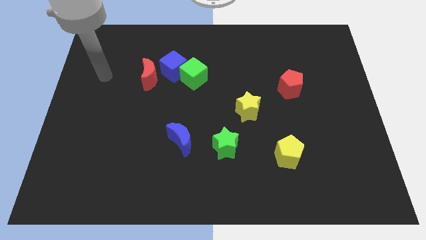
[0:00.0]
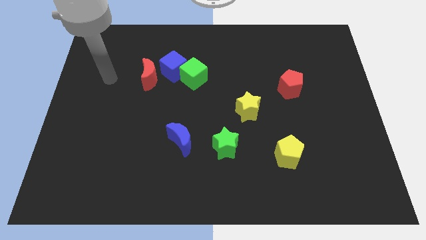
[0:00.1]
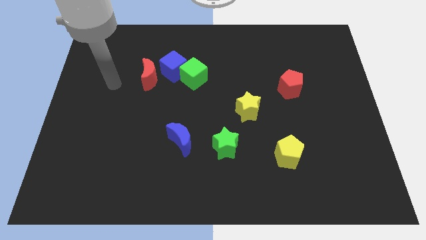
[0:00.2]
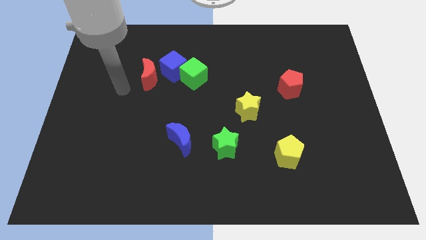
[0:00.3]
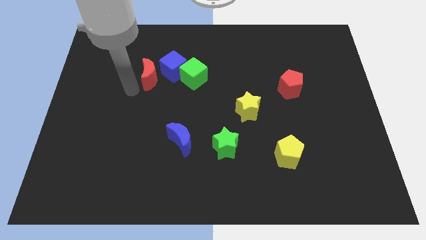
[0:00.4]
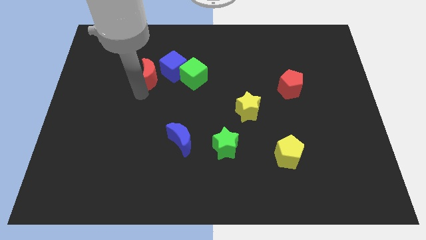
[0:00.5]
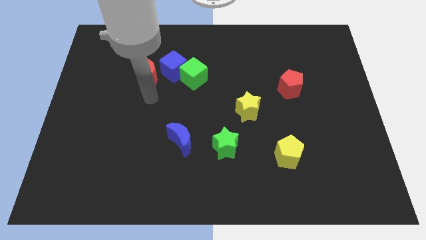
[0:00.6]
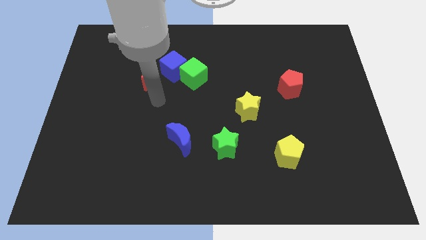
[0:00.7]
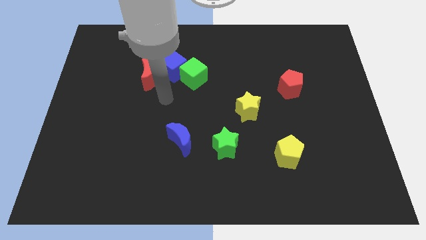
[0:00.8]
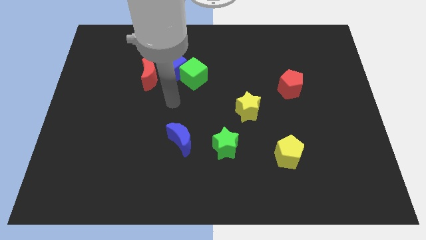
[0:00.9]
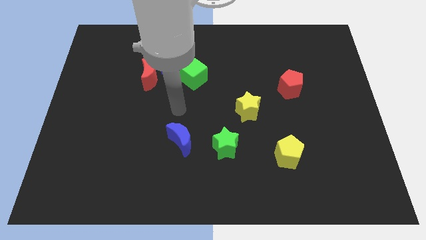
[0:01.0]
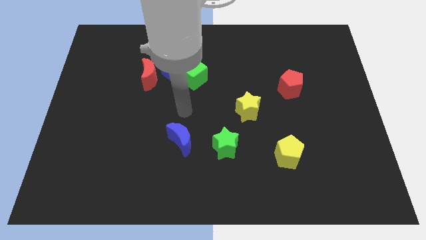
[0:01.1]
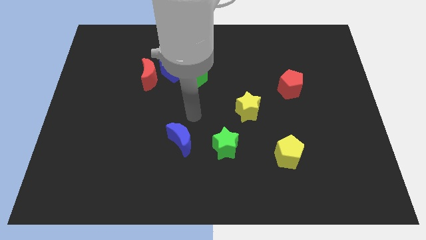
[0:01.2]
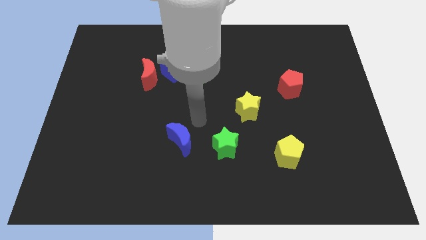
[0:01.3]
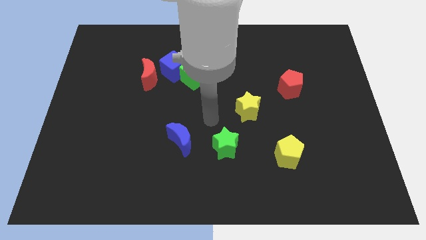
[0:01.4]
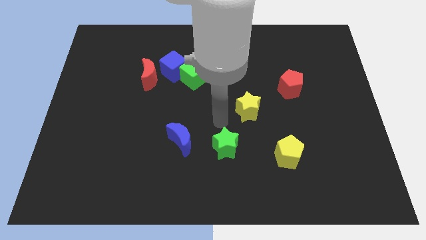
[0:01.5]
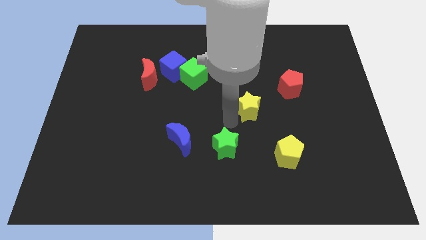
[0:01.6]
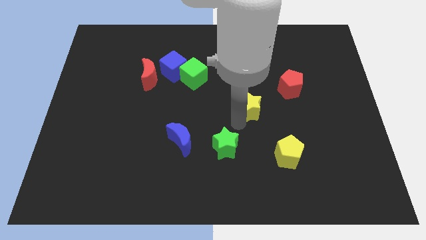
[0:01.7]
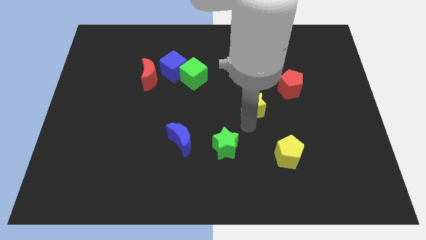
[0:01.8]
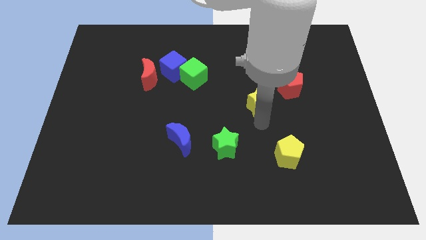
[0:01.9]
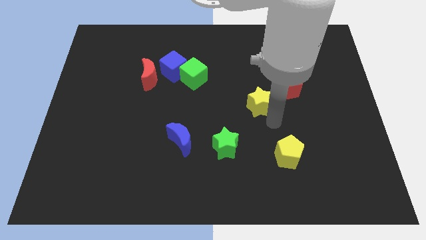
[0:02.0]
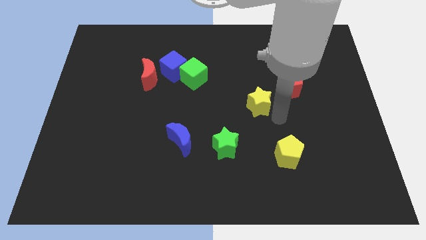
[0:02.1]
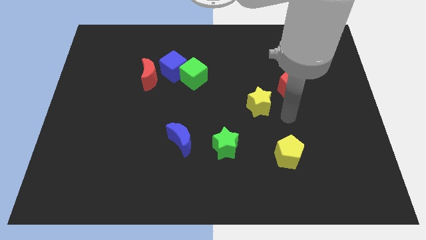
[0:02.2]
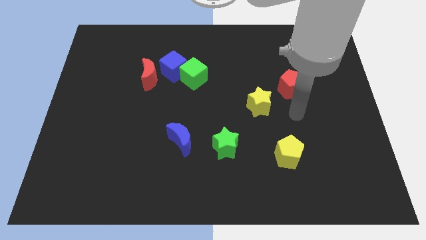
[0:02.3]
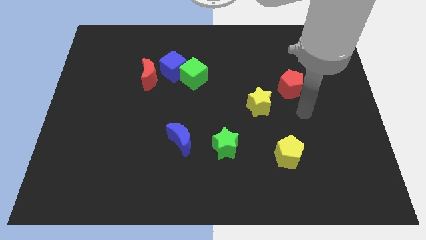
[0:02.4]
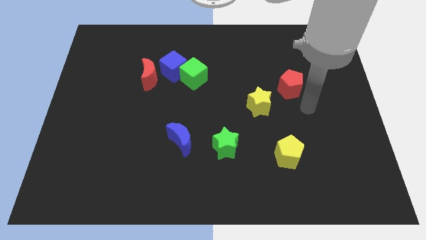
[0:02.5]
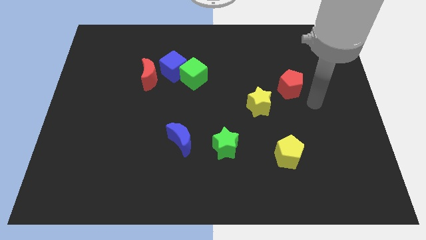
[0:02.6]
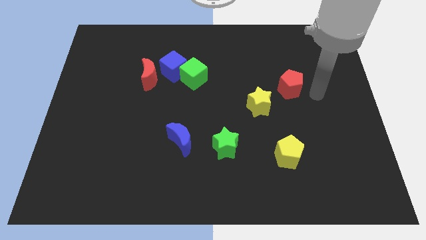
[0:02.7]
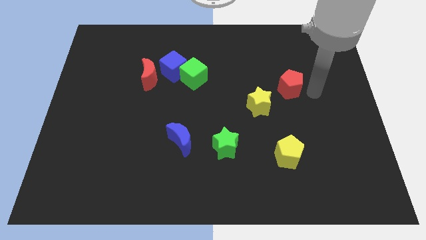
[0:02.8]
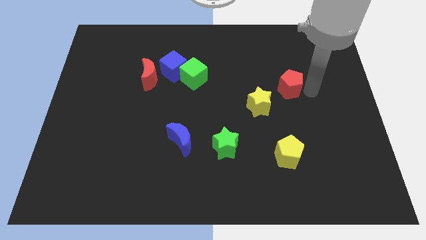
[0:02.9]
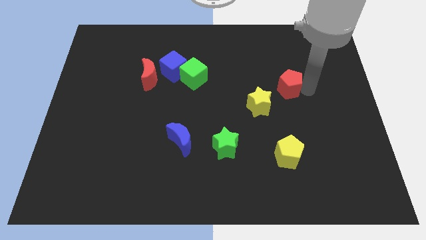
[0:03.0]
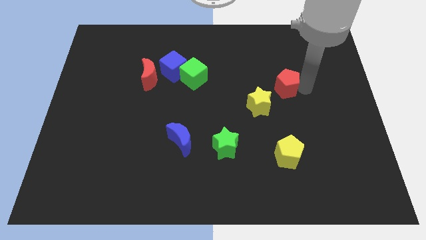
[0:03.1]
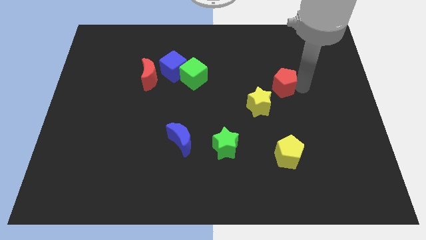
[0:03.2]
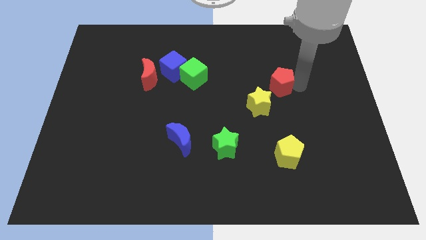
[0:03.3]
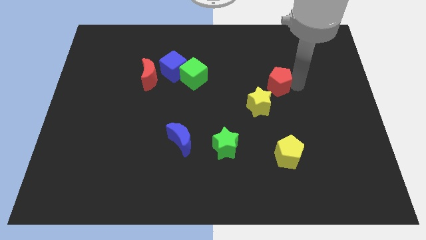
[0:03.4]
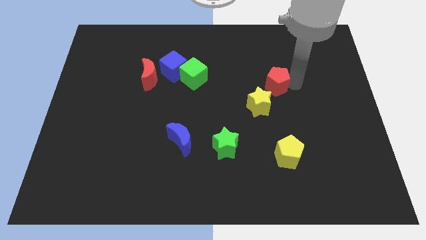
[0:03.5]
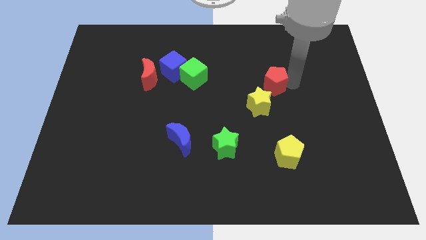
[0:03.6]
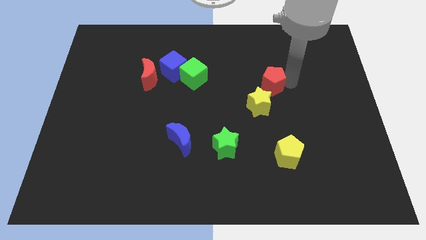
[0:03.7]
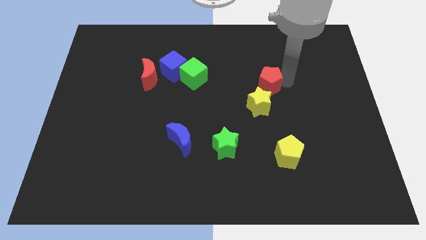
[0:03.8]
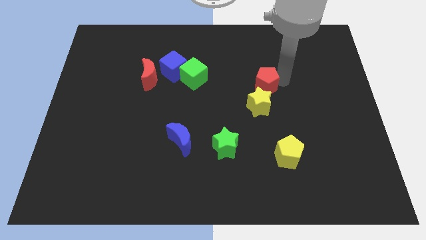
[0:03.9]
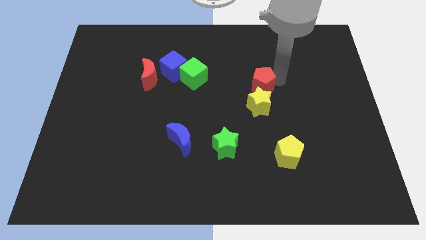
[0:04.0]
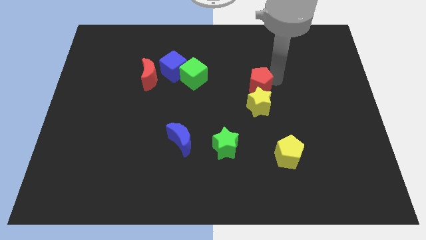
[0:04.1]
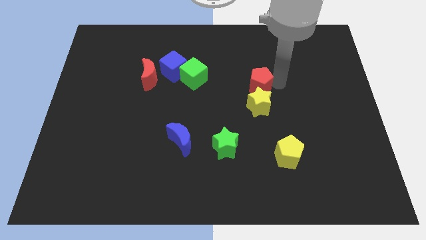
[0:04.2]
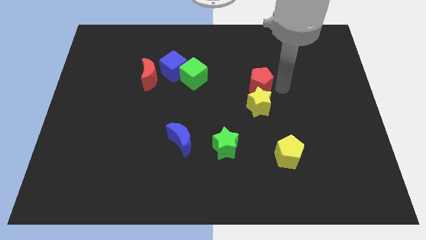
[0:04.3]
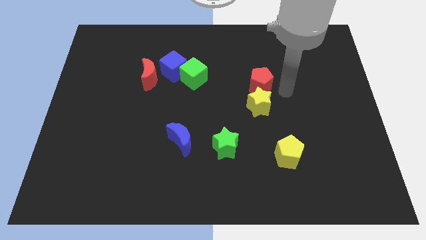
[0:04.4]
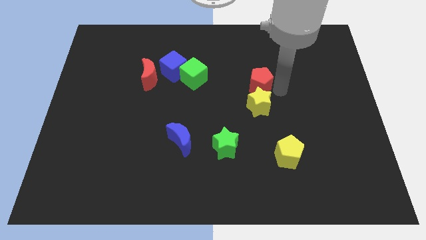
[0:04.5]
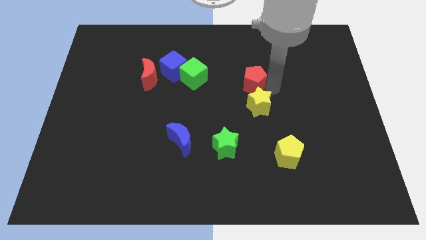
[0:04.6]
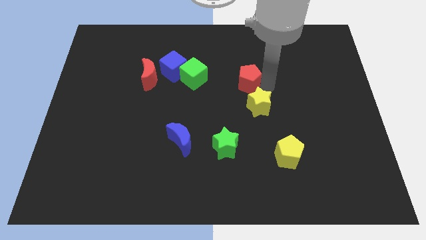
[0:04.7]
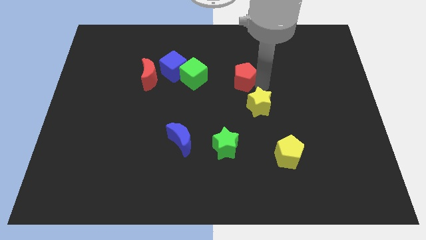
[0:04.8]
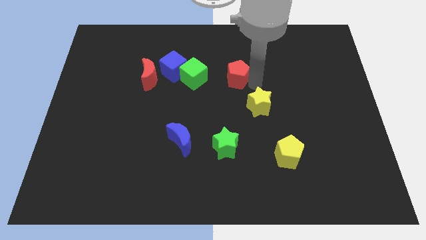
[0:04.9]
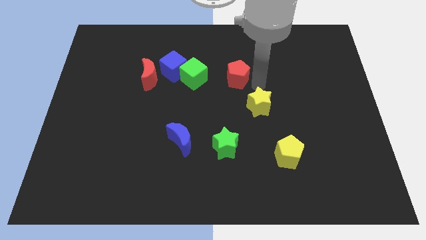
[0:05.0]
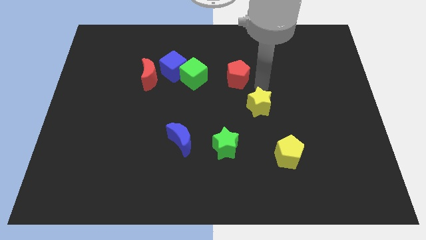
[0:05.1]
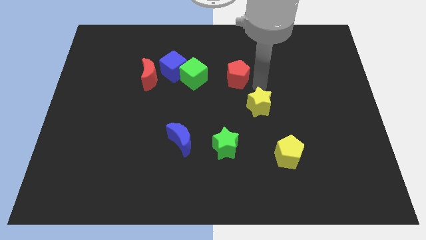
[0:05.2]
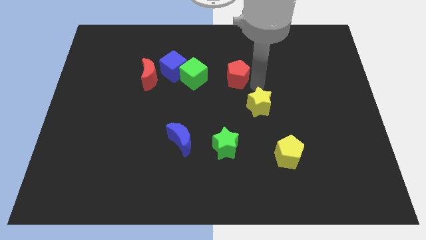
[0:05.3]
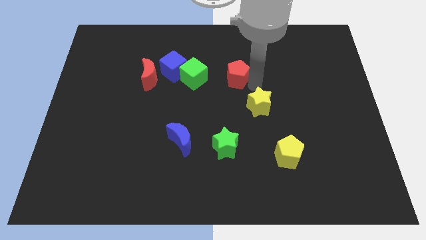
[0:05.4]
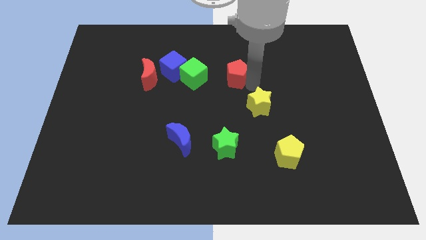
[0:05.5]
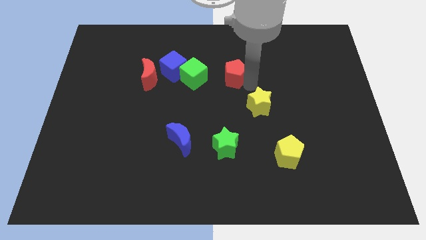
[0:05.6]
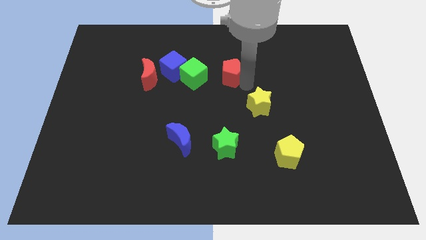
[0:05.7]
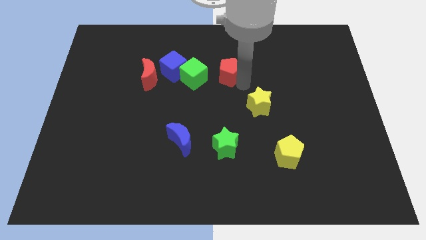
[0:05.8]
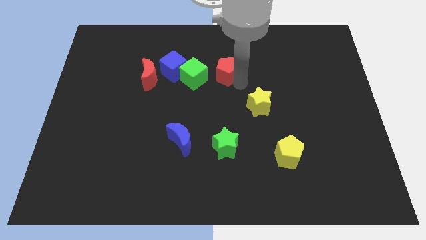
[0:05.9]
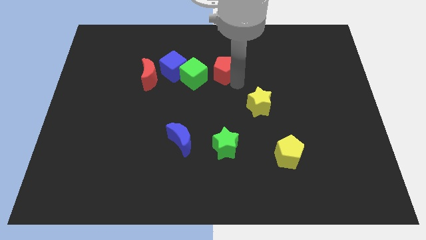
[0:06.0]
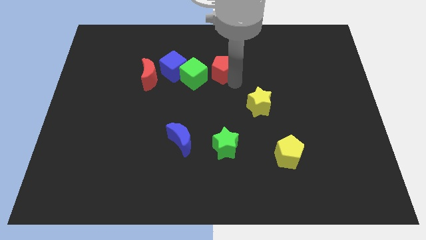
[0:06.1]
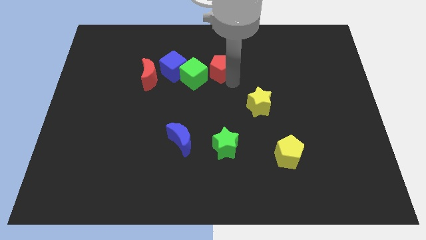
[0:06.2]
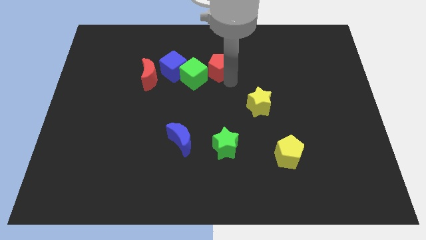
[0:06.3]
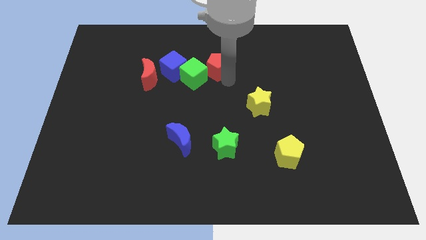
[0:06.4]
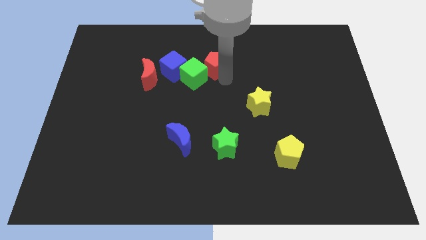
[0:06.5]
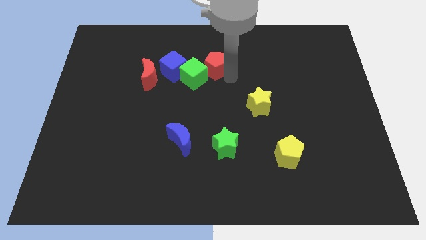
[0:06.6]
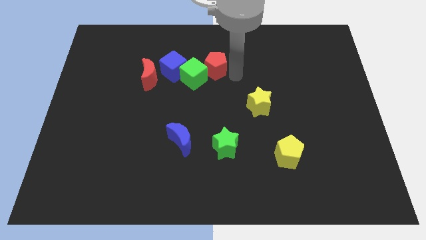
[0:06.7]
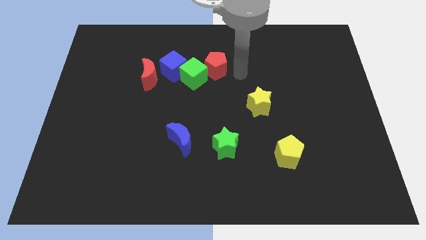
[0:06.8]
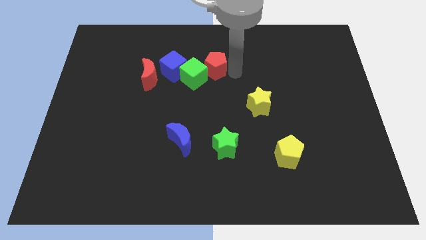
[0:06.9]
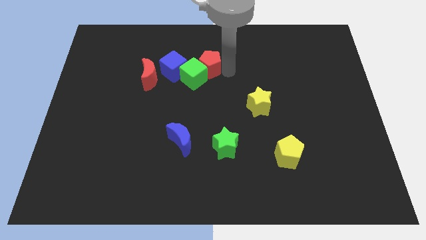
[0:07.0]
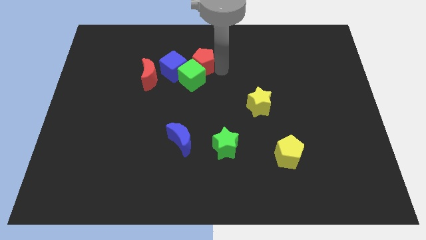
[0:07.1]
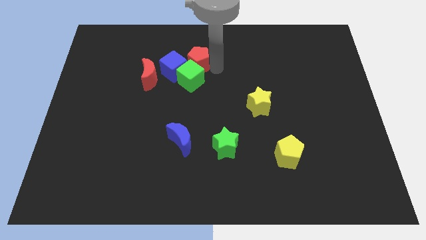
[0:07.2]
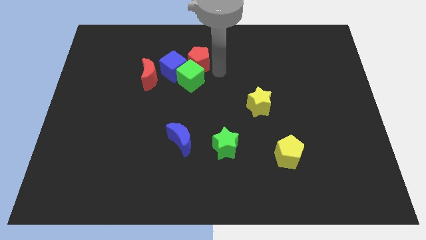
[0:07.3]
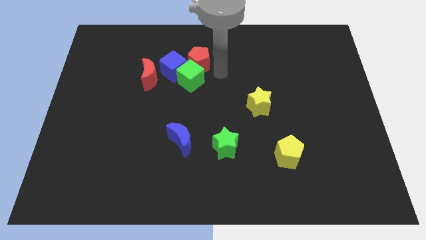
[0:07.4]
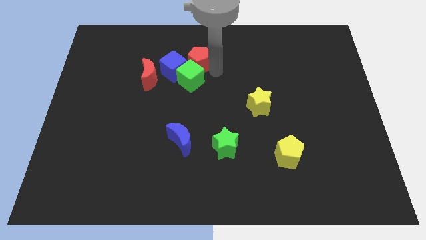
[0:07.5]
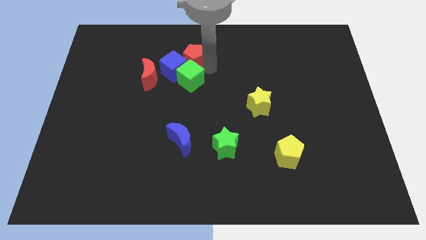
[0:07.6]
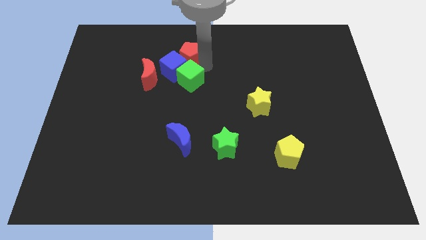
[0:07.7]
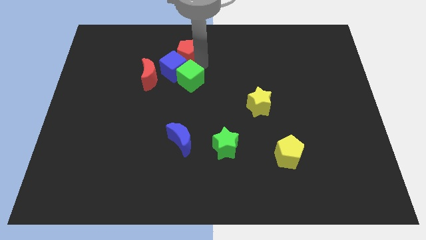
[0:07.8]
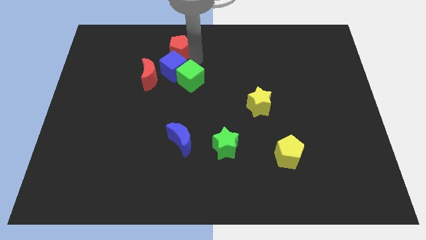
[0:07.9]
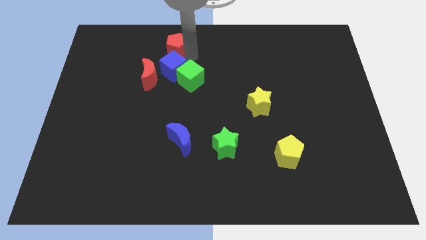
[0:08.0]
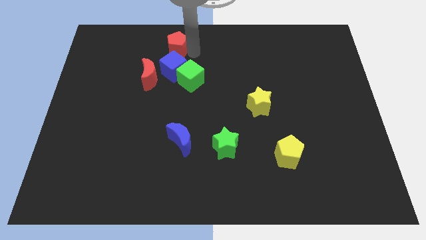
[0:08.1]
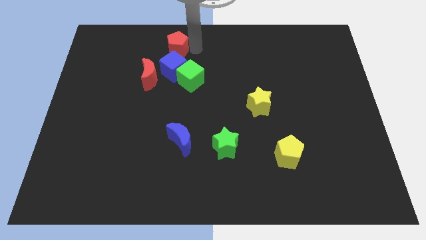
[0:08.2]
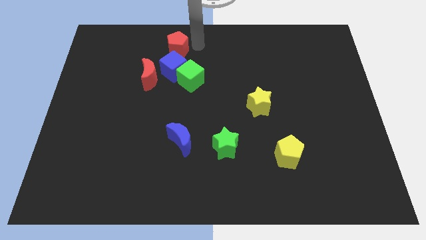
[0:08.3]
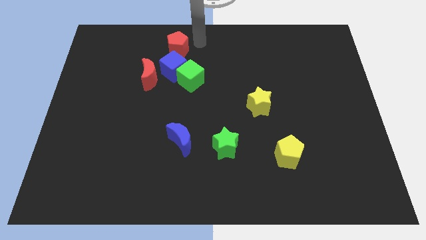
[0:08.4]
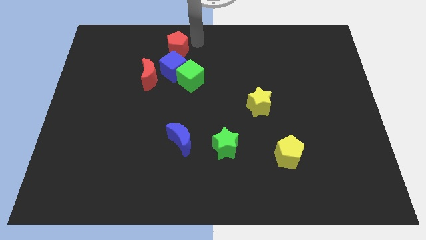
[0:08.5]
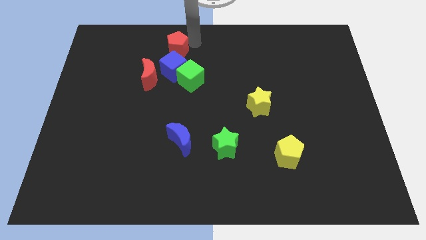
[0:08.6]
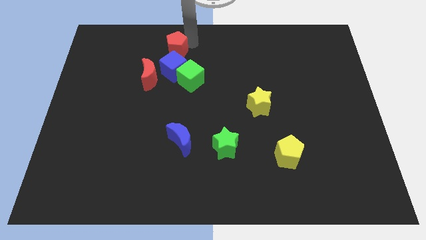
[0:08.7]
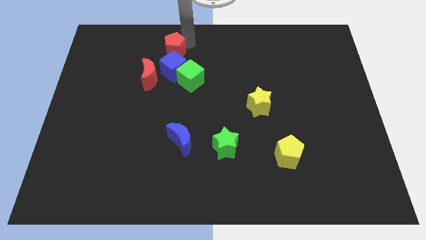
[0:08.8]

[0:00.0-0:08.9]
move the red pentagon diagonally up and to the left of the blue cube
